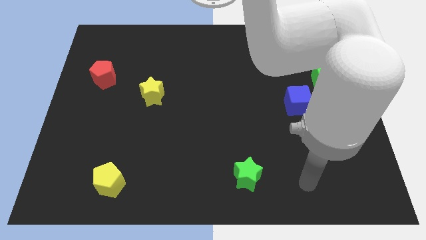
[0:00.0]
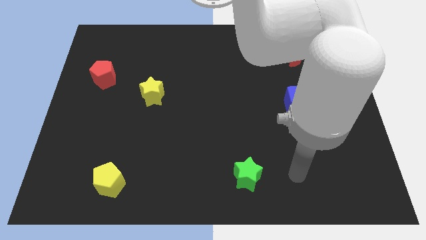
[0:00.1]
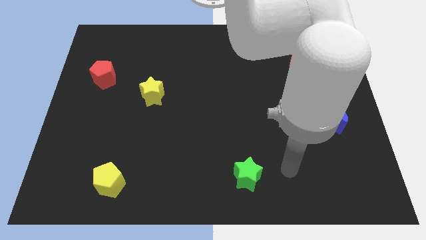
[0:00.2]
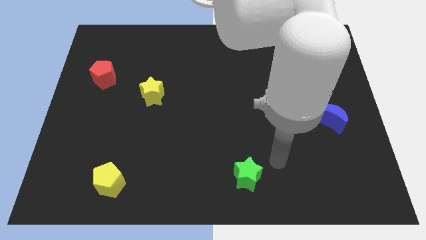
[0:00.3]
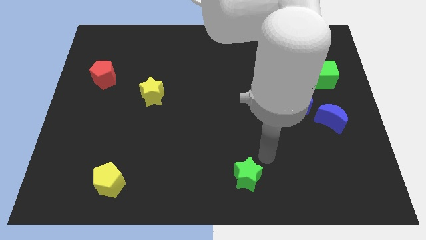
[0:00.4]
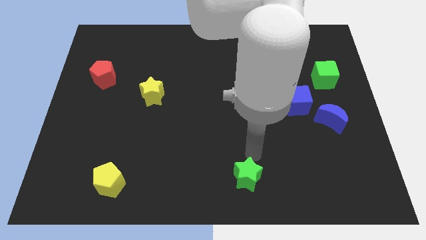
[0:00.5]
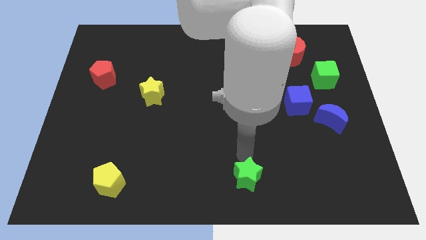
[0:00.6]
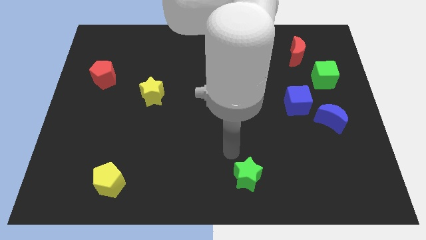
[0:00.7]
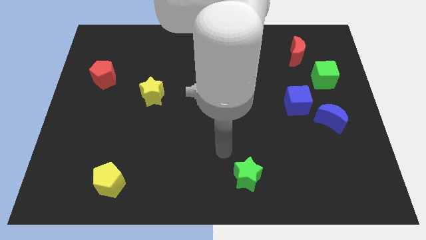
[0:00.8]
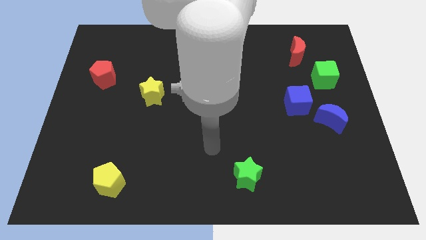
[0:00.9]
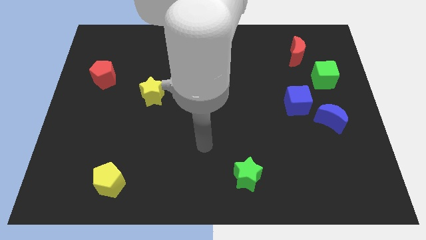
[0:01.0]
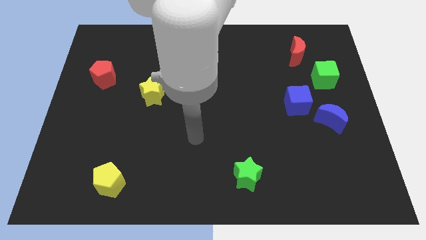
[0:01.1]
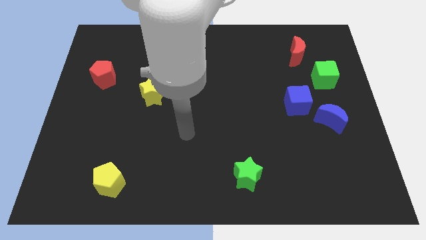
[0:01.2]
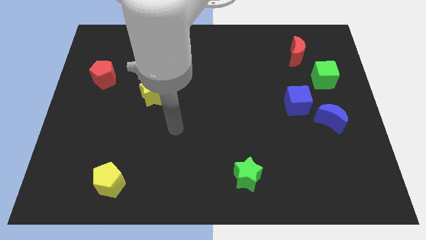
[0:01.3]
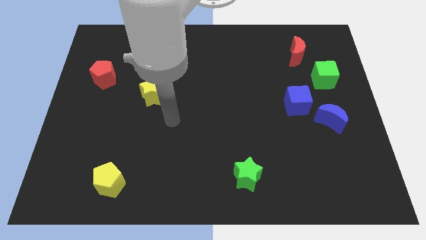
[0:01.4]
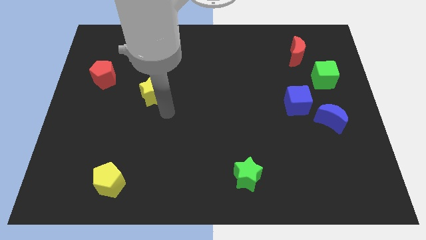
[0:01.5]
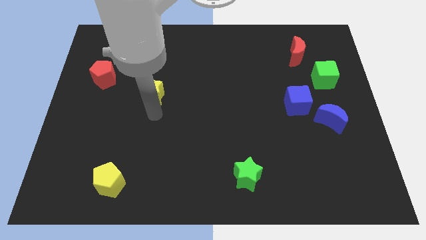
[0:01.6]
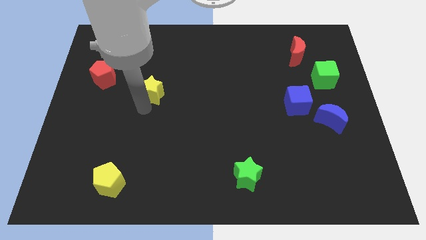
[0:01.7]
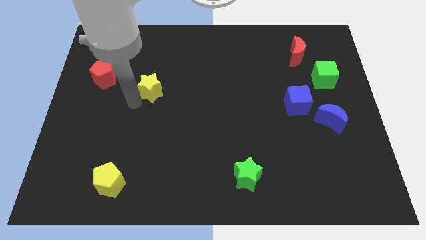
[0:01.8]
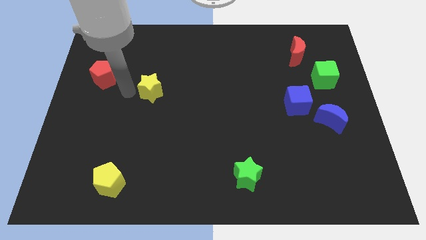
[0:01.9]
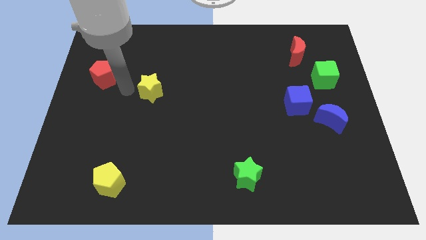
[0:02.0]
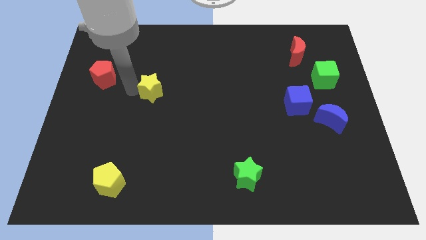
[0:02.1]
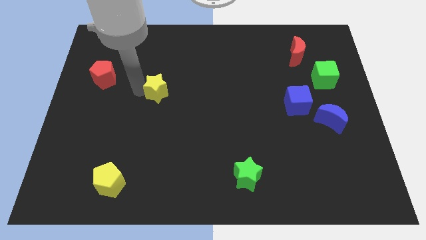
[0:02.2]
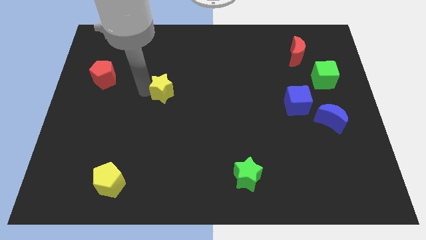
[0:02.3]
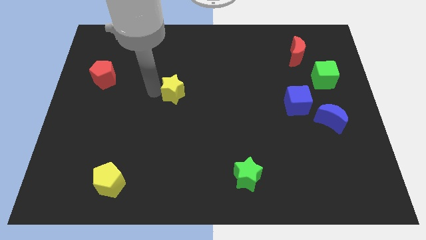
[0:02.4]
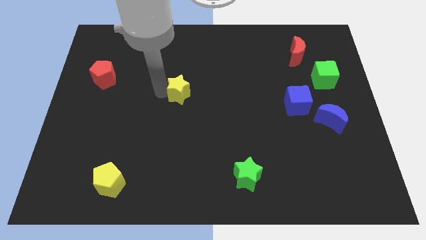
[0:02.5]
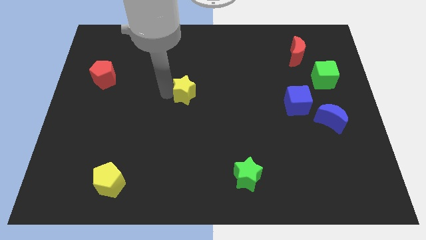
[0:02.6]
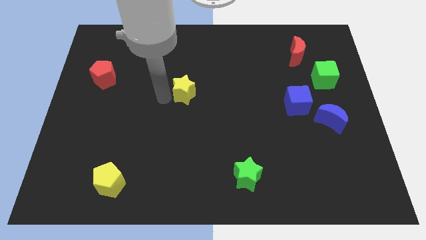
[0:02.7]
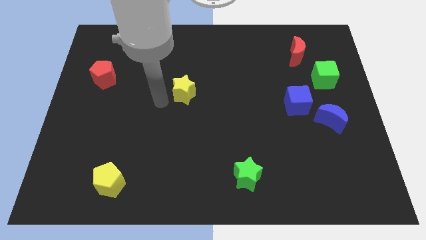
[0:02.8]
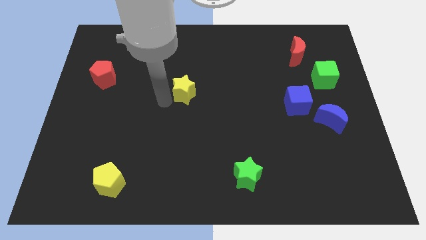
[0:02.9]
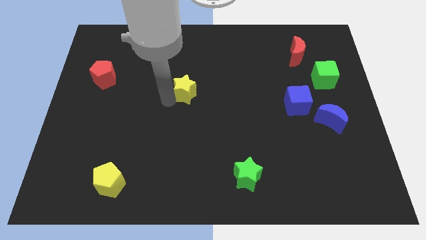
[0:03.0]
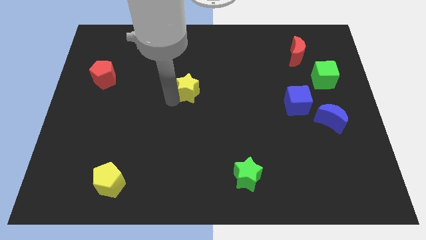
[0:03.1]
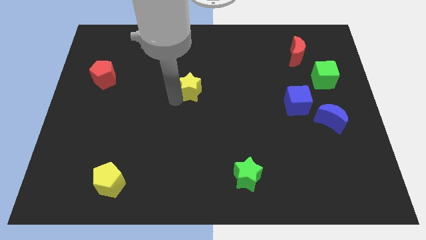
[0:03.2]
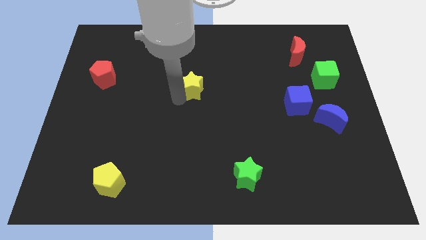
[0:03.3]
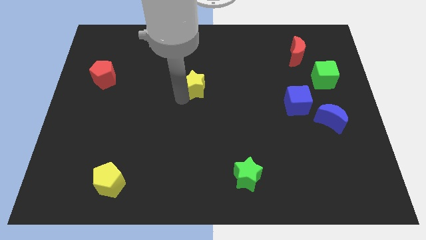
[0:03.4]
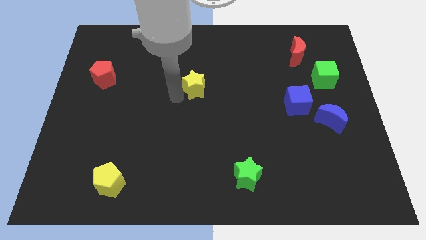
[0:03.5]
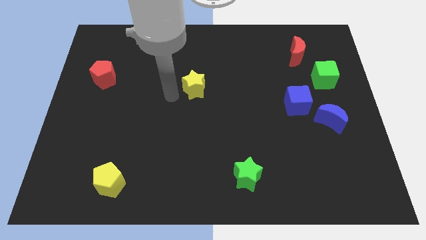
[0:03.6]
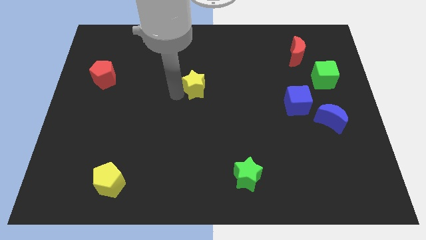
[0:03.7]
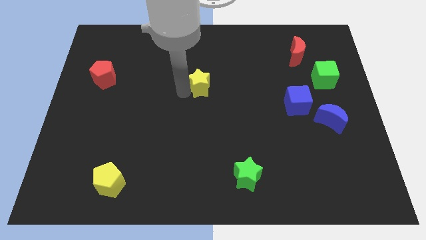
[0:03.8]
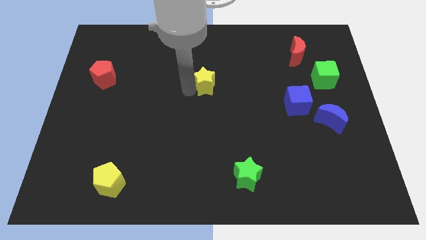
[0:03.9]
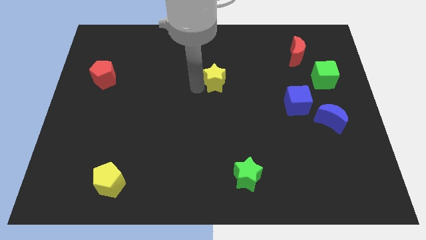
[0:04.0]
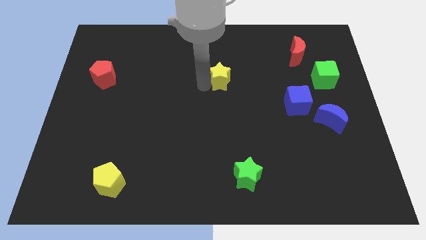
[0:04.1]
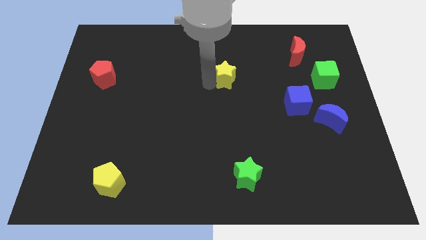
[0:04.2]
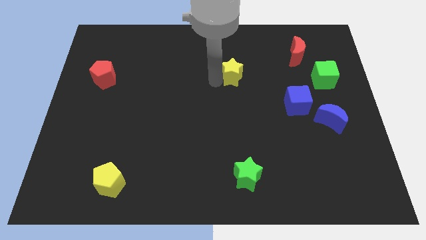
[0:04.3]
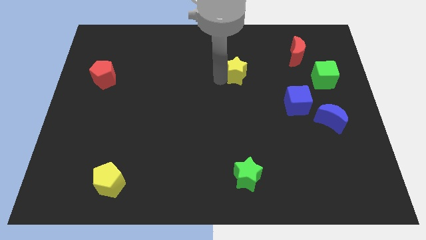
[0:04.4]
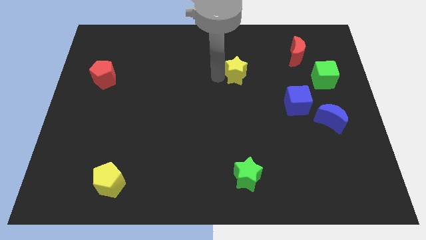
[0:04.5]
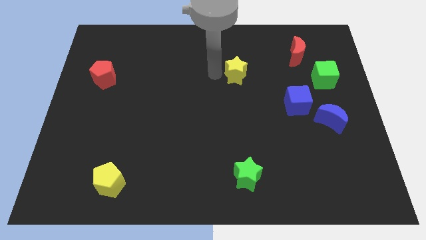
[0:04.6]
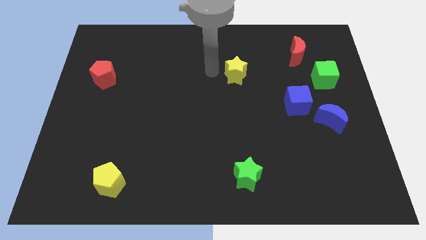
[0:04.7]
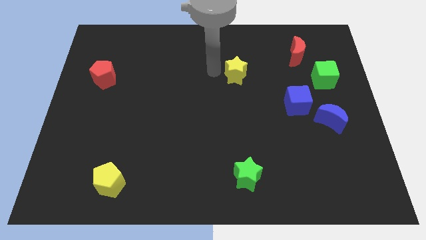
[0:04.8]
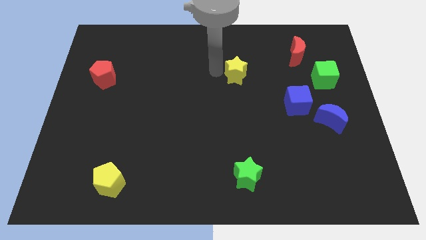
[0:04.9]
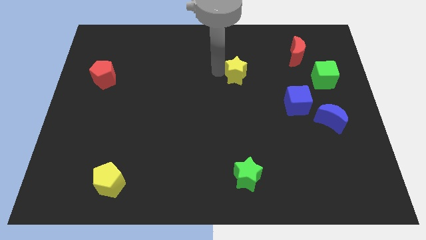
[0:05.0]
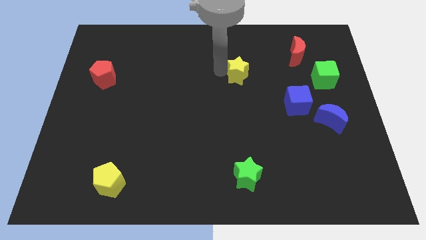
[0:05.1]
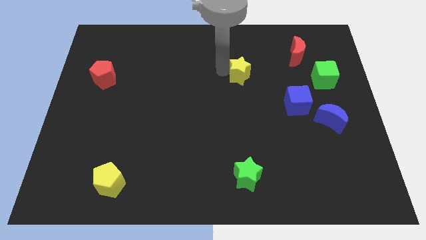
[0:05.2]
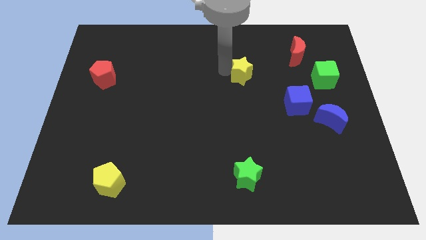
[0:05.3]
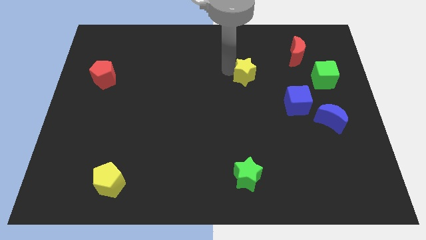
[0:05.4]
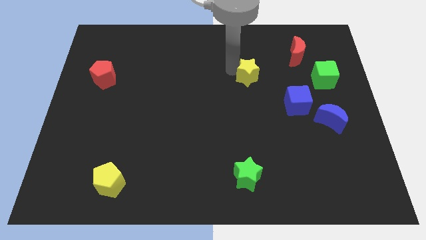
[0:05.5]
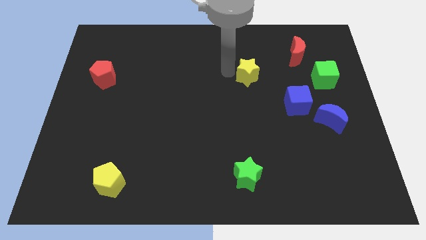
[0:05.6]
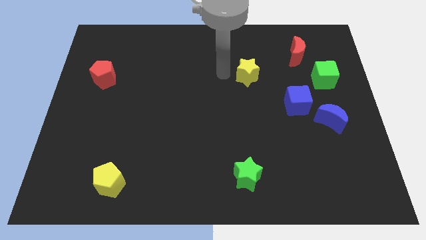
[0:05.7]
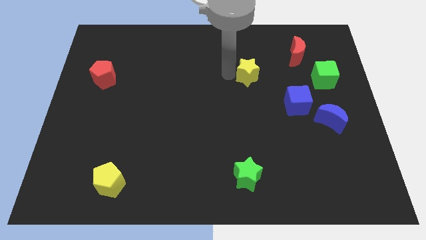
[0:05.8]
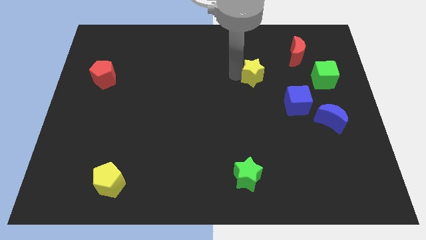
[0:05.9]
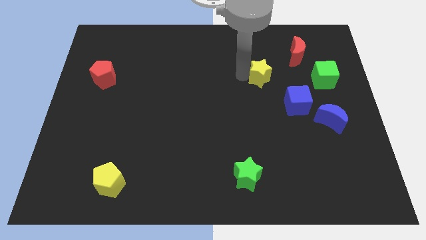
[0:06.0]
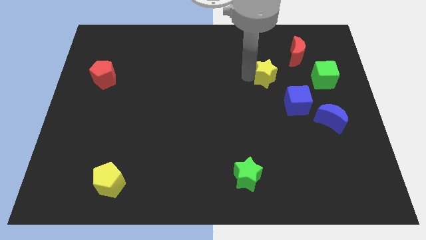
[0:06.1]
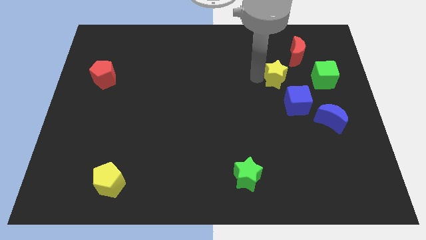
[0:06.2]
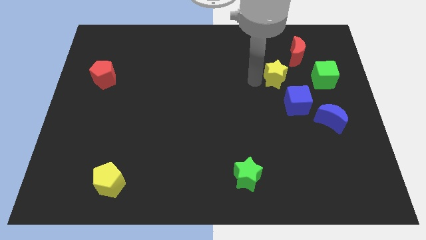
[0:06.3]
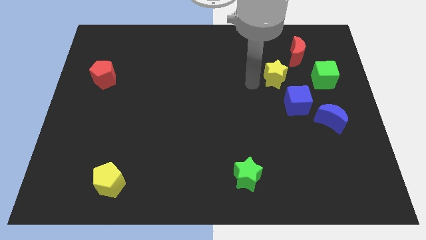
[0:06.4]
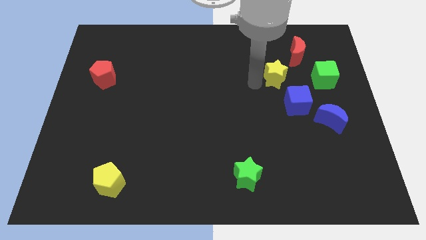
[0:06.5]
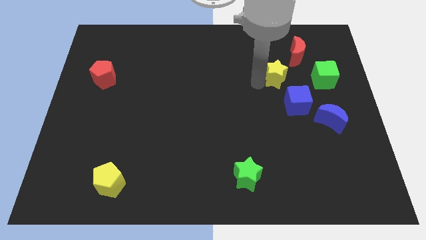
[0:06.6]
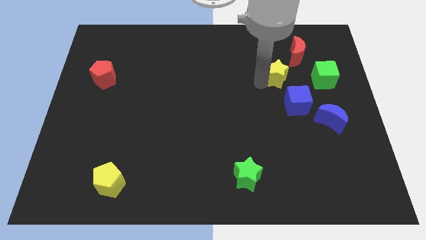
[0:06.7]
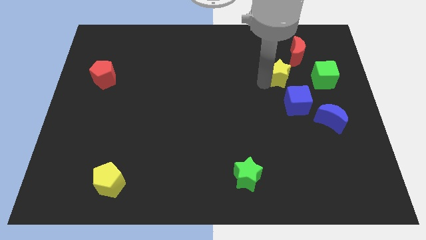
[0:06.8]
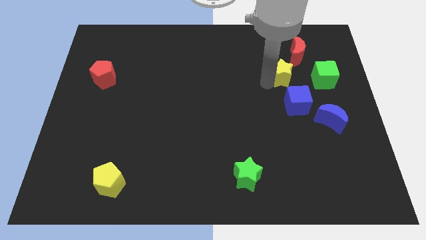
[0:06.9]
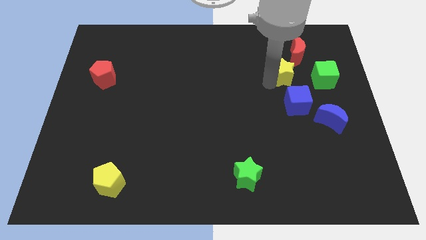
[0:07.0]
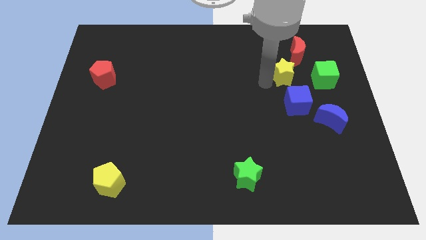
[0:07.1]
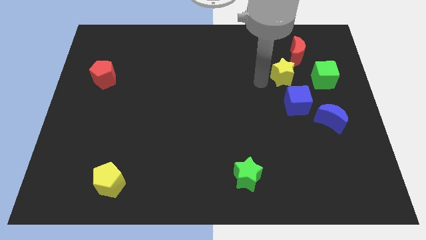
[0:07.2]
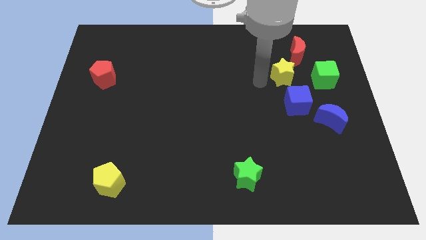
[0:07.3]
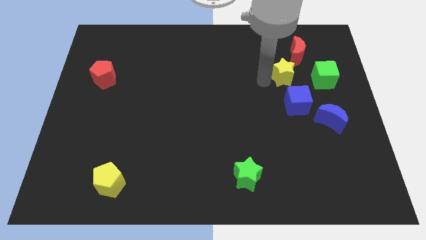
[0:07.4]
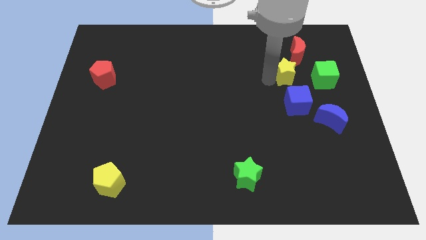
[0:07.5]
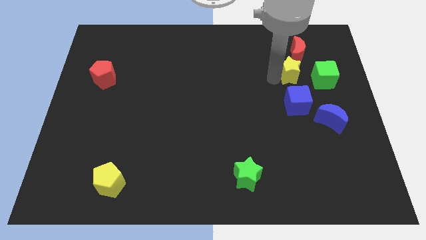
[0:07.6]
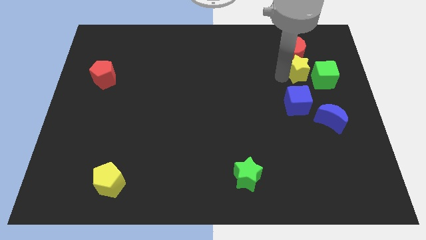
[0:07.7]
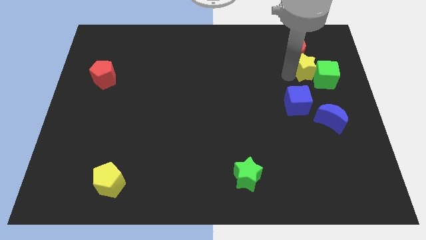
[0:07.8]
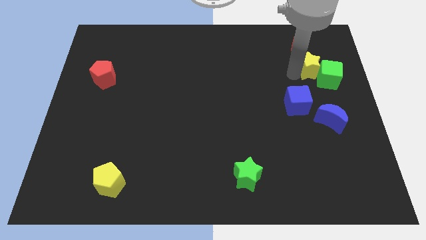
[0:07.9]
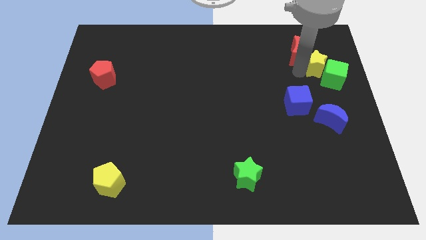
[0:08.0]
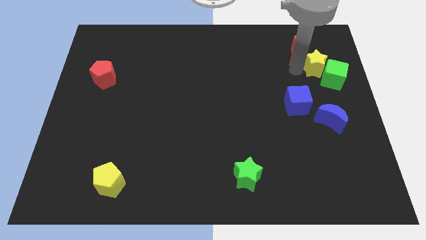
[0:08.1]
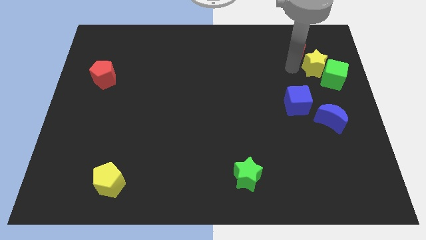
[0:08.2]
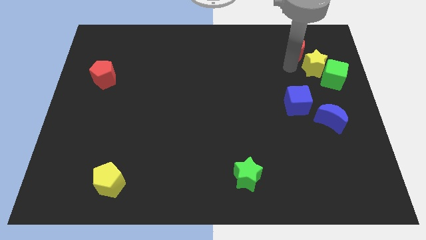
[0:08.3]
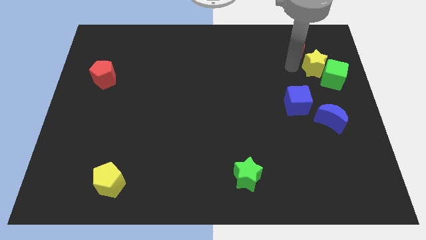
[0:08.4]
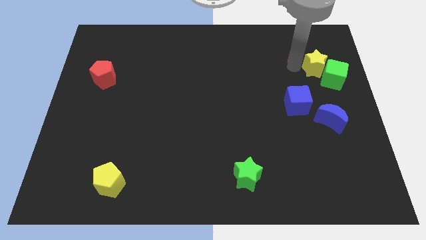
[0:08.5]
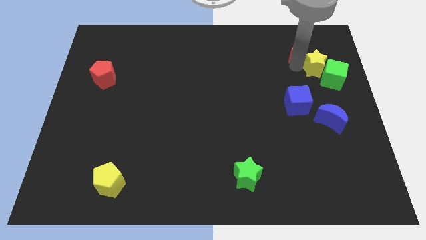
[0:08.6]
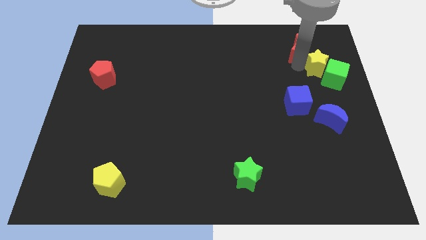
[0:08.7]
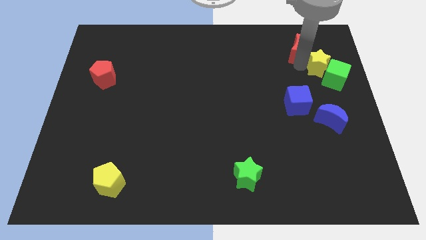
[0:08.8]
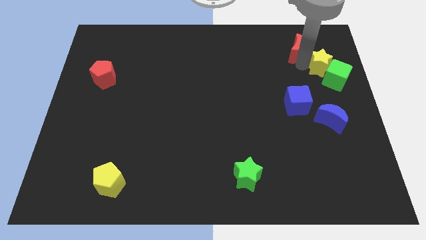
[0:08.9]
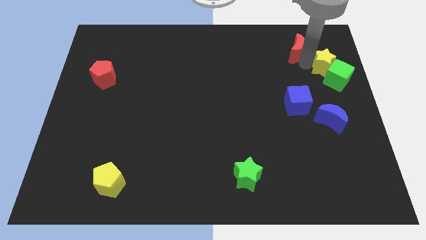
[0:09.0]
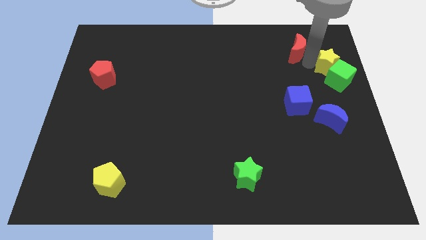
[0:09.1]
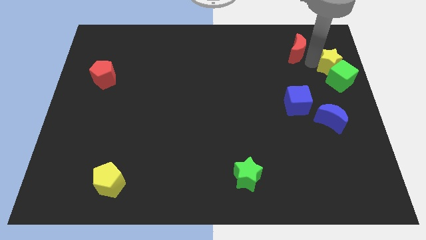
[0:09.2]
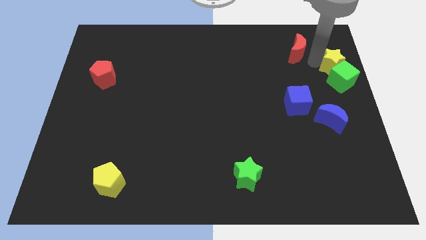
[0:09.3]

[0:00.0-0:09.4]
slide the yellow star to the center right
